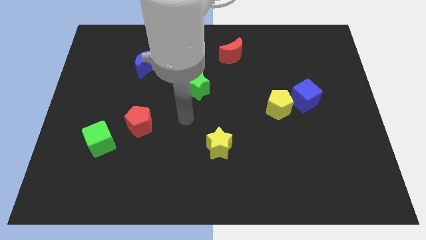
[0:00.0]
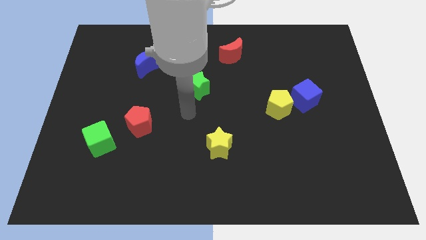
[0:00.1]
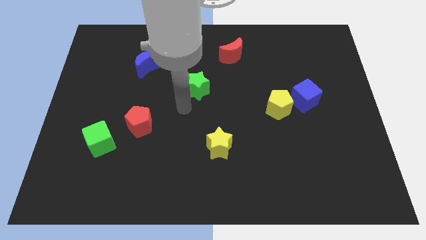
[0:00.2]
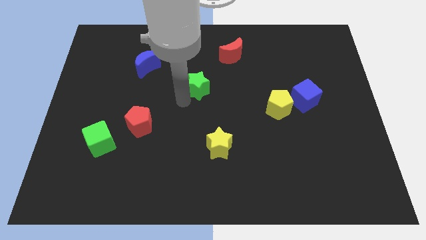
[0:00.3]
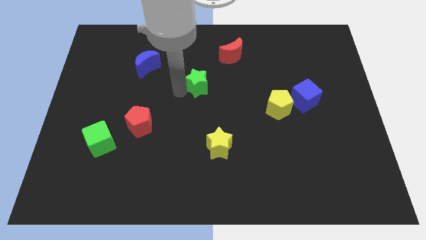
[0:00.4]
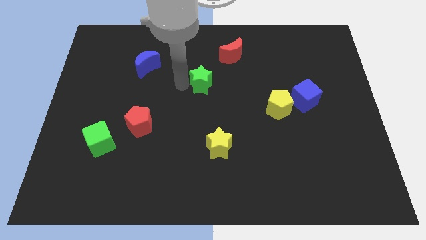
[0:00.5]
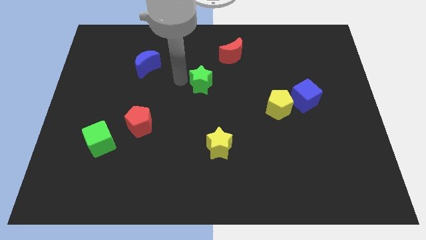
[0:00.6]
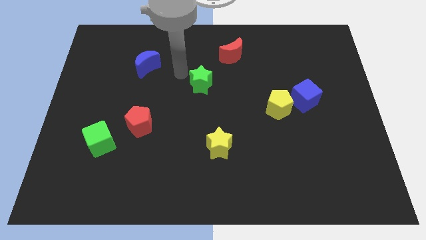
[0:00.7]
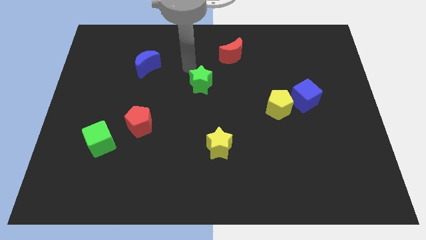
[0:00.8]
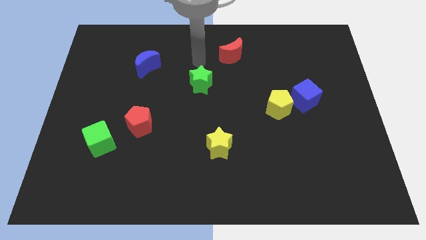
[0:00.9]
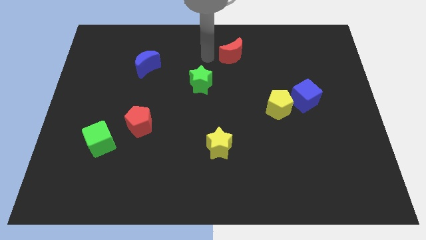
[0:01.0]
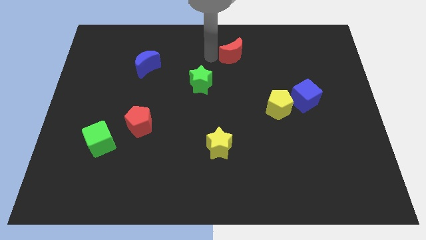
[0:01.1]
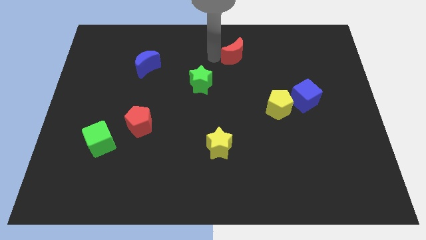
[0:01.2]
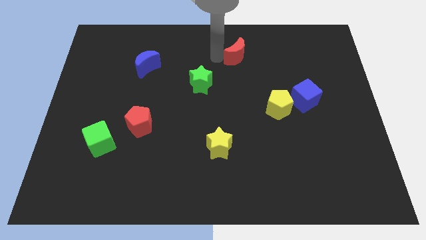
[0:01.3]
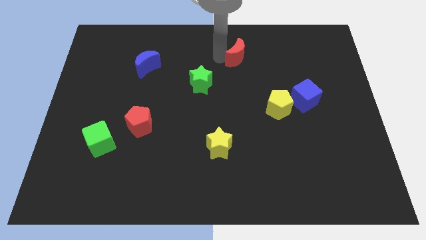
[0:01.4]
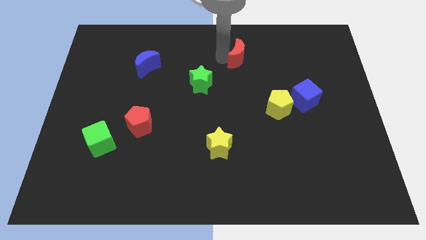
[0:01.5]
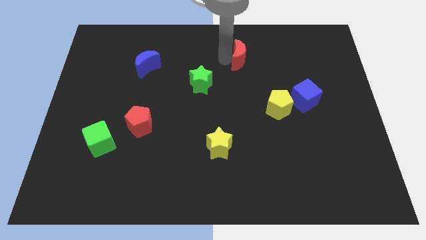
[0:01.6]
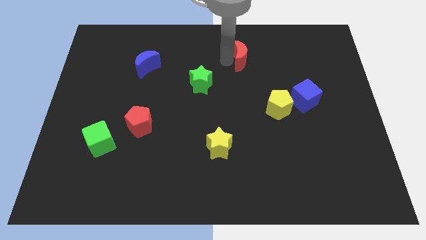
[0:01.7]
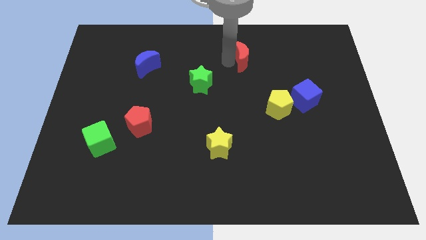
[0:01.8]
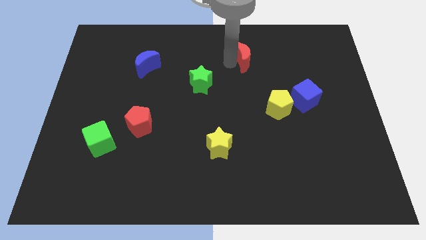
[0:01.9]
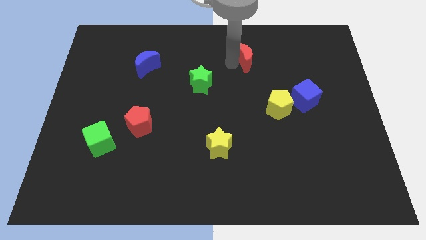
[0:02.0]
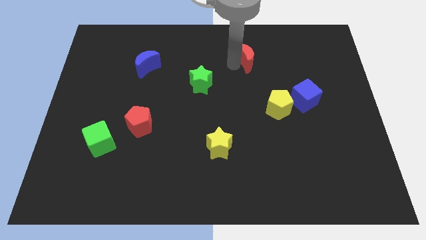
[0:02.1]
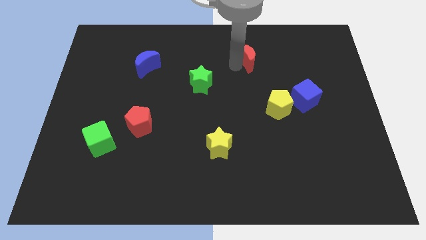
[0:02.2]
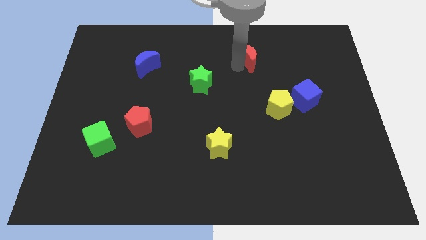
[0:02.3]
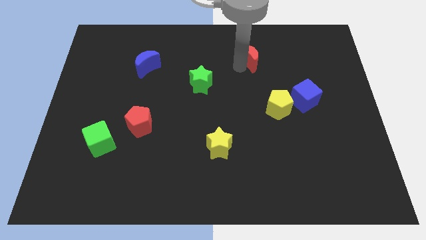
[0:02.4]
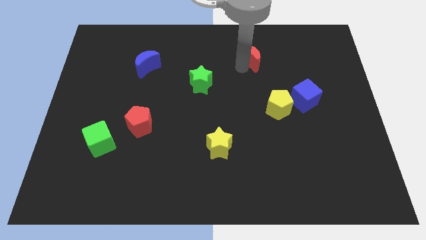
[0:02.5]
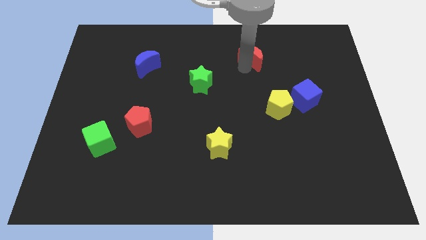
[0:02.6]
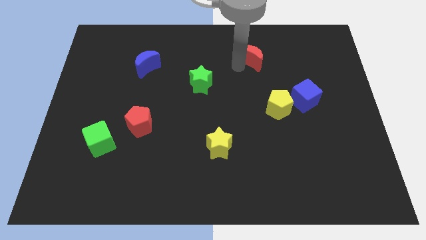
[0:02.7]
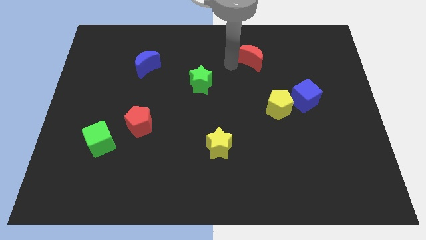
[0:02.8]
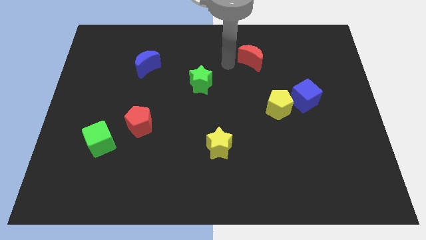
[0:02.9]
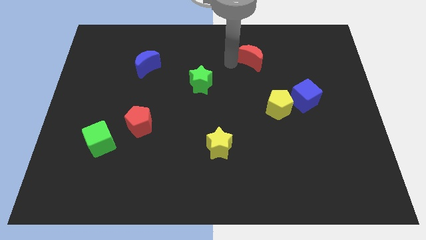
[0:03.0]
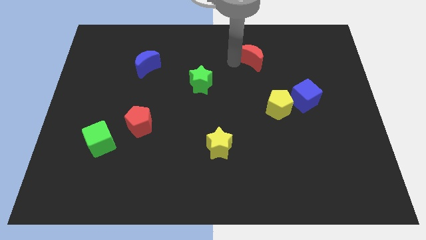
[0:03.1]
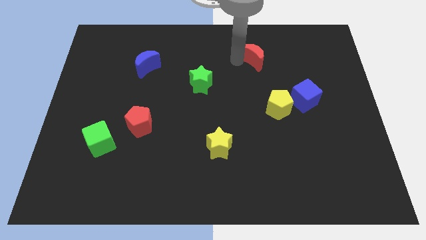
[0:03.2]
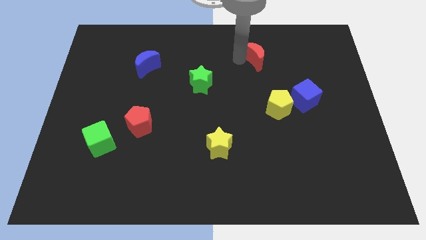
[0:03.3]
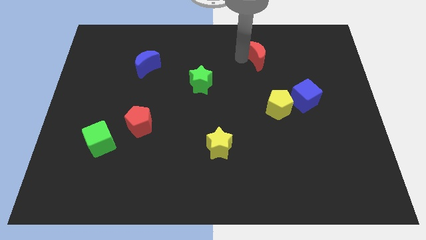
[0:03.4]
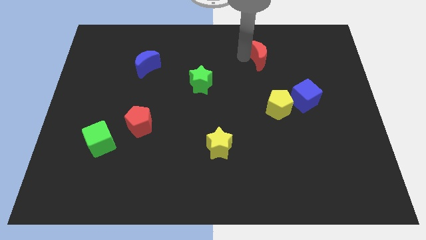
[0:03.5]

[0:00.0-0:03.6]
move the red moon to the right a little

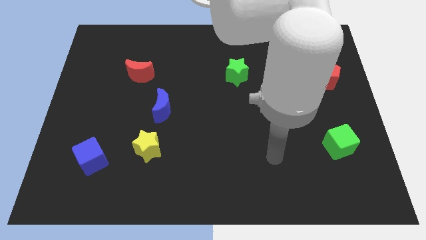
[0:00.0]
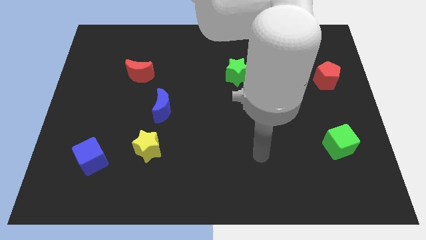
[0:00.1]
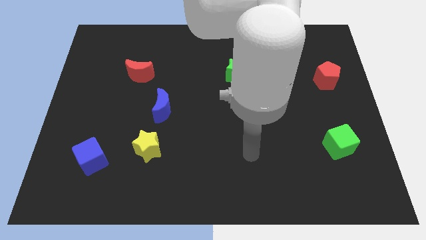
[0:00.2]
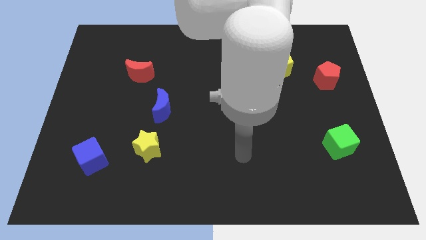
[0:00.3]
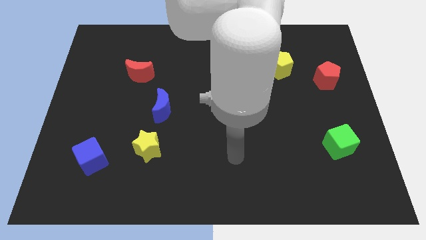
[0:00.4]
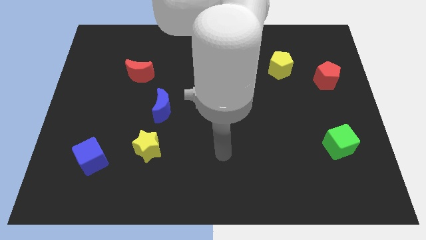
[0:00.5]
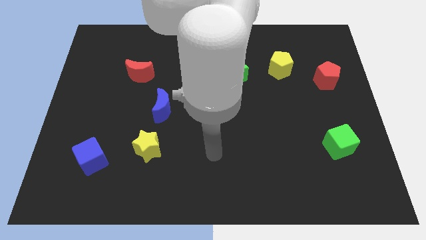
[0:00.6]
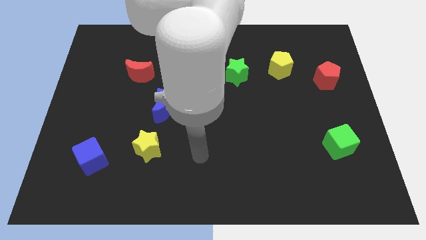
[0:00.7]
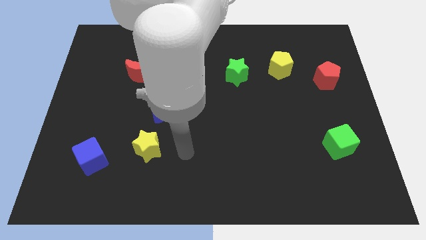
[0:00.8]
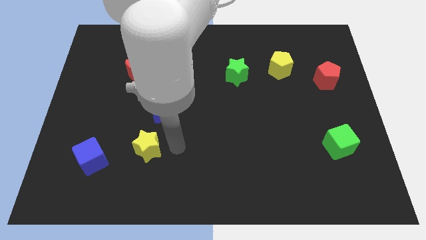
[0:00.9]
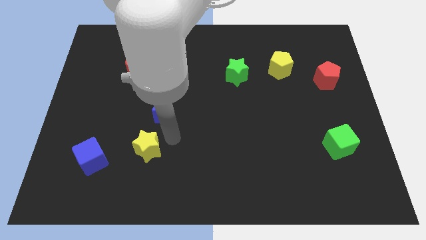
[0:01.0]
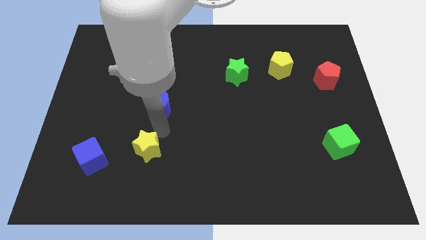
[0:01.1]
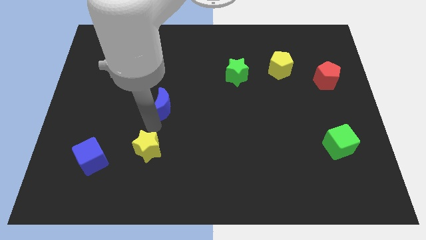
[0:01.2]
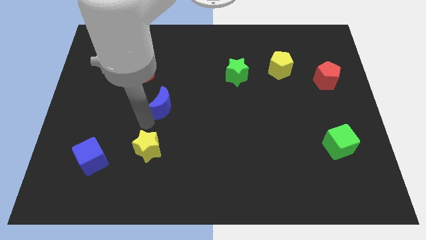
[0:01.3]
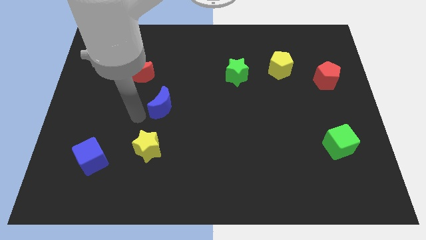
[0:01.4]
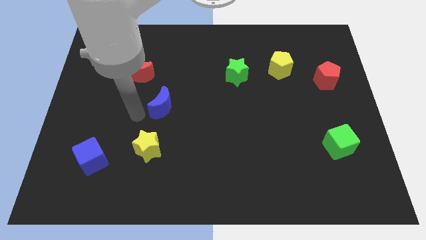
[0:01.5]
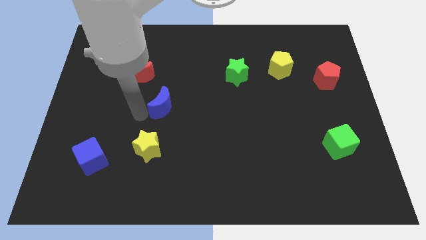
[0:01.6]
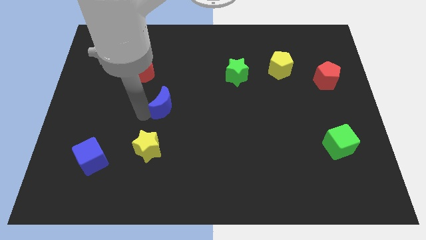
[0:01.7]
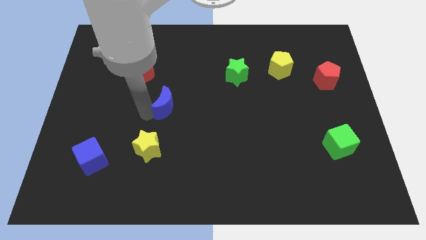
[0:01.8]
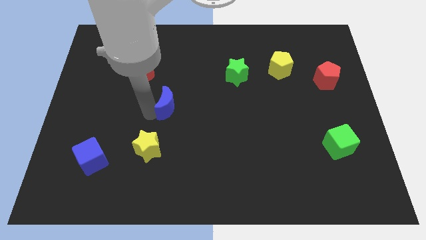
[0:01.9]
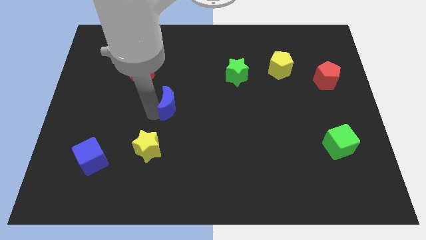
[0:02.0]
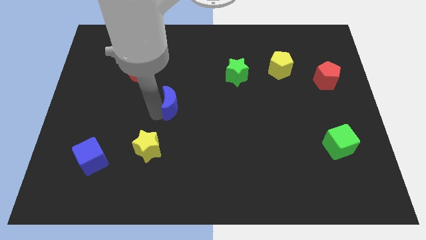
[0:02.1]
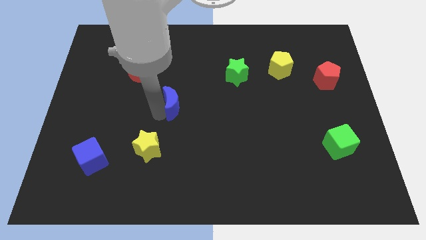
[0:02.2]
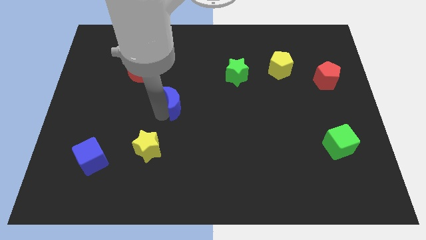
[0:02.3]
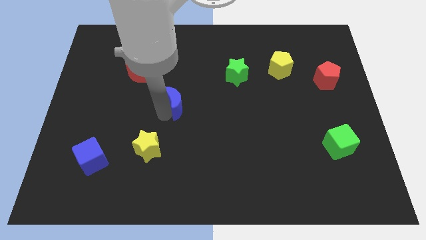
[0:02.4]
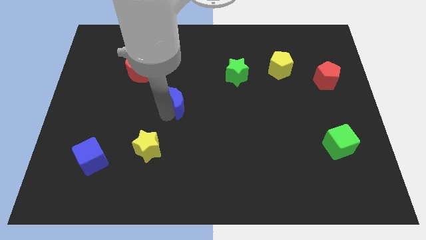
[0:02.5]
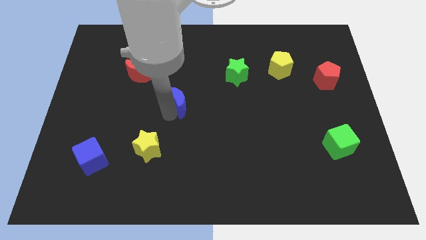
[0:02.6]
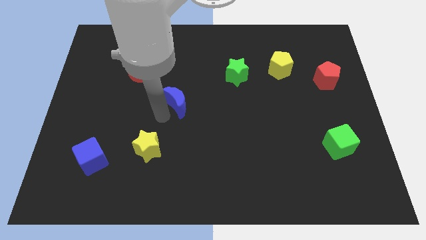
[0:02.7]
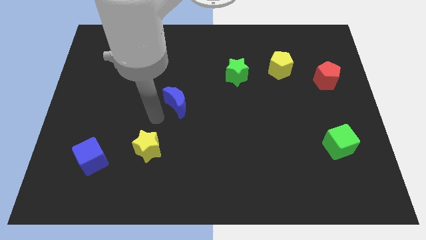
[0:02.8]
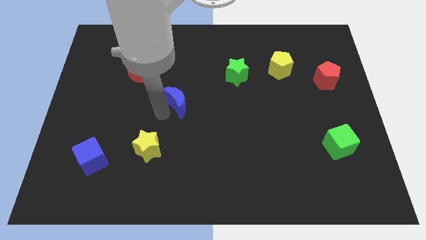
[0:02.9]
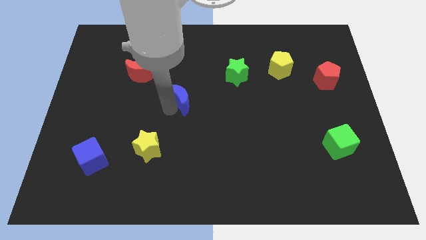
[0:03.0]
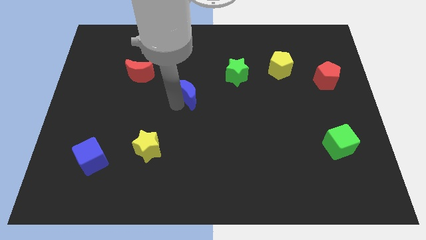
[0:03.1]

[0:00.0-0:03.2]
move the blue moon upwards and to the right slightly

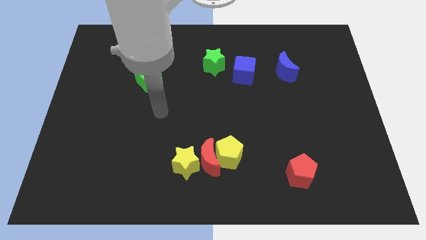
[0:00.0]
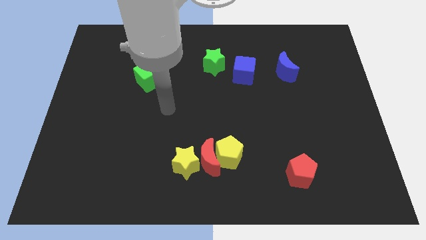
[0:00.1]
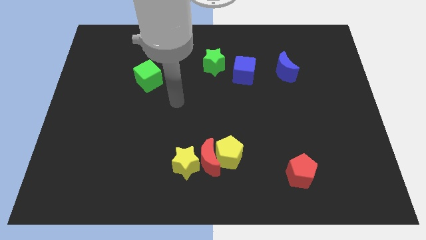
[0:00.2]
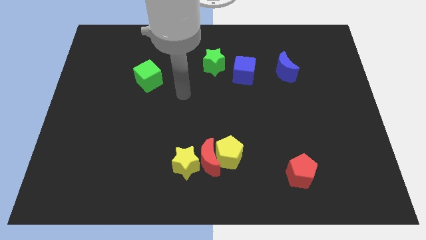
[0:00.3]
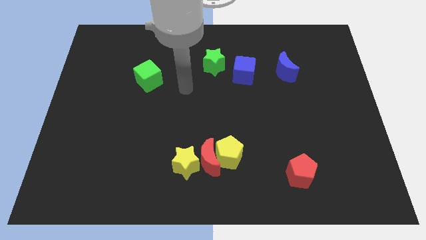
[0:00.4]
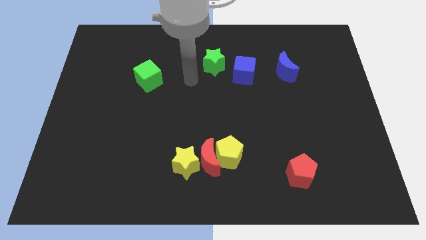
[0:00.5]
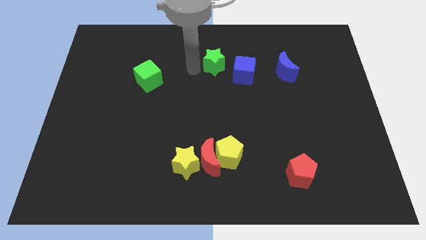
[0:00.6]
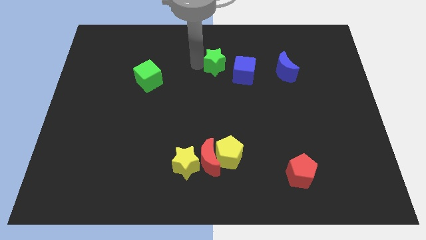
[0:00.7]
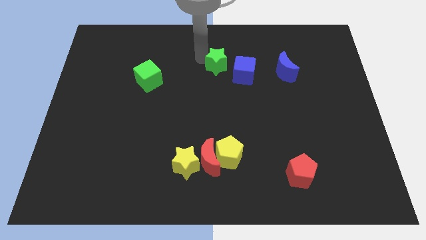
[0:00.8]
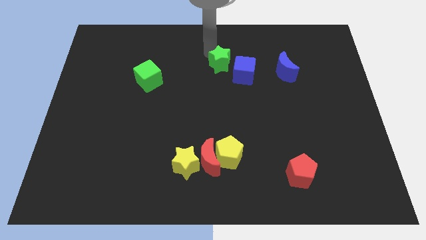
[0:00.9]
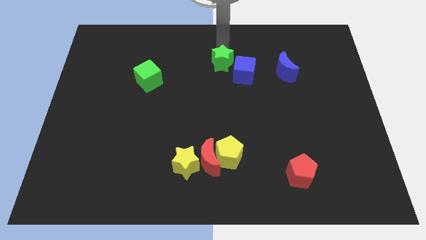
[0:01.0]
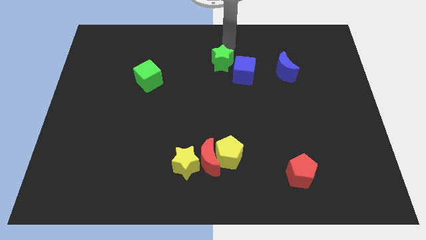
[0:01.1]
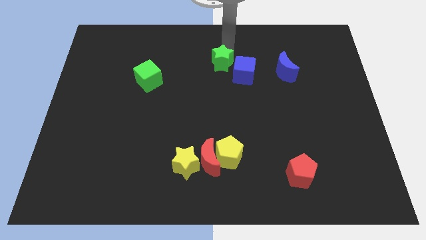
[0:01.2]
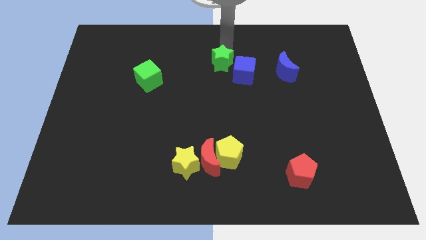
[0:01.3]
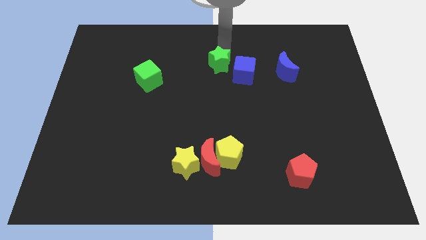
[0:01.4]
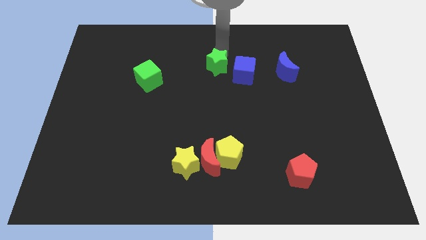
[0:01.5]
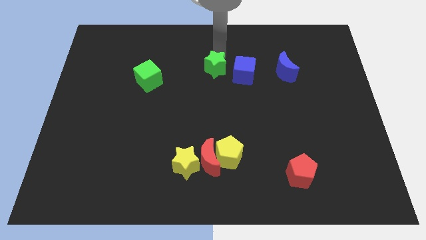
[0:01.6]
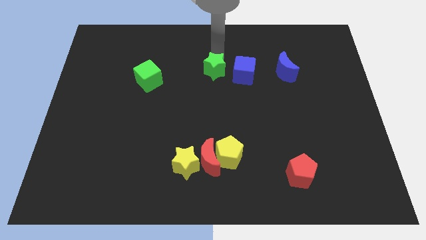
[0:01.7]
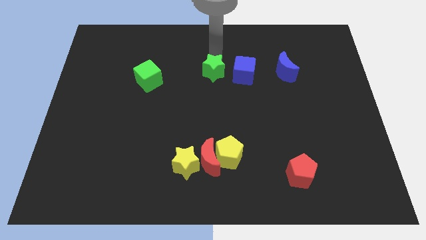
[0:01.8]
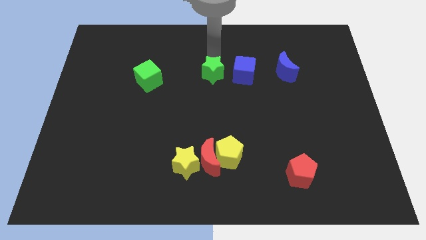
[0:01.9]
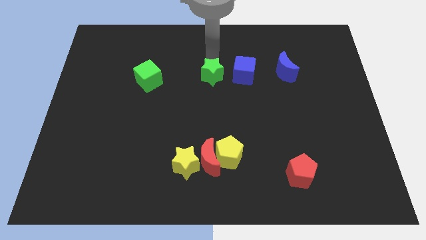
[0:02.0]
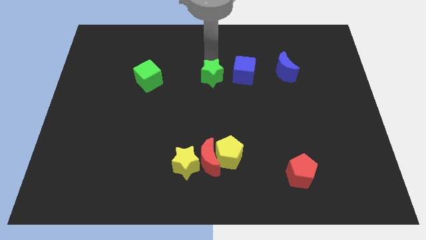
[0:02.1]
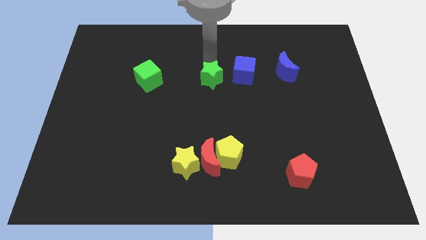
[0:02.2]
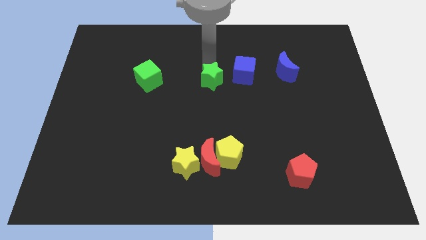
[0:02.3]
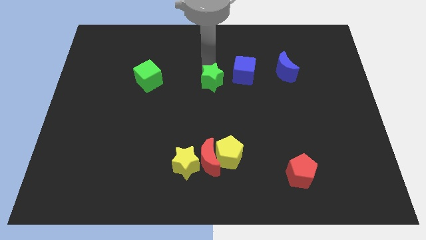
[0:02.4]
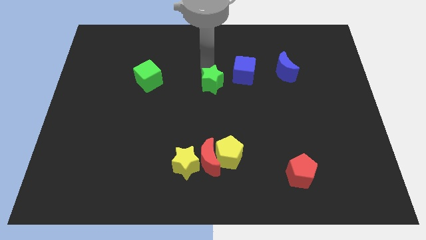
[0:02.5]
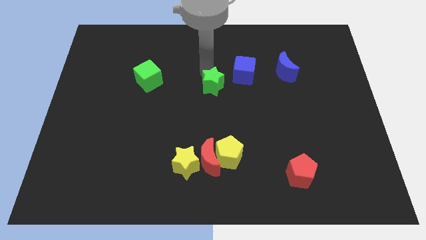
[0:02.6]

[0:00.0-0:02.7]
slightly push the green star down
